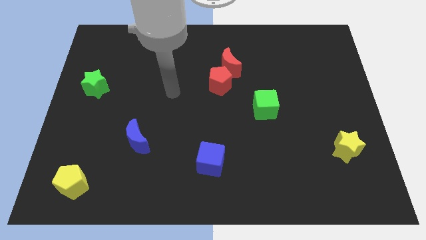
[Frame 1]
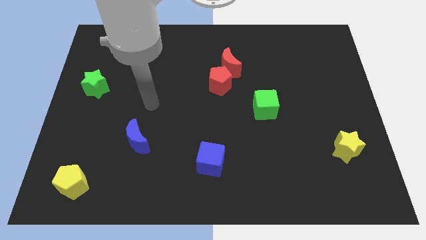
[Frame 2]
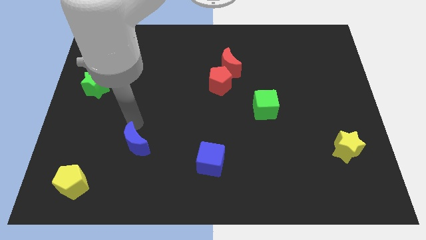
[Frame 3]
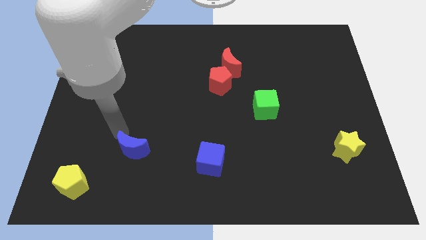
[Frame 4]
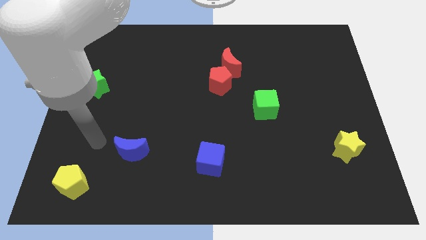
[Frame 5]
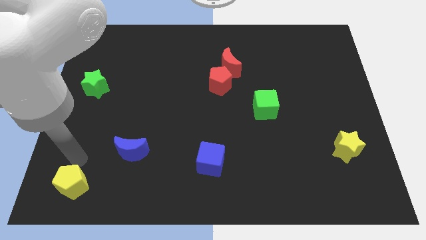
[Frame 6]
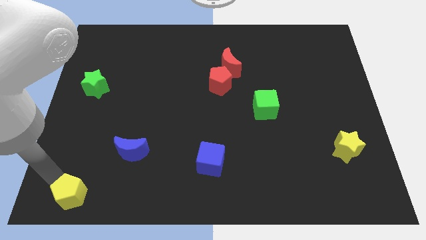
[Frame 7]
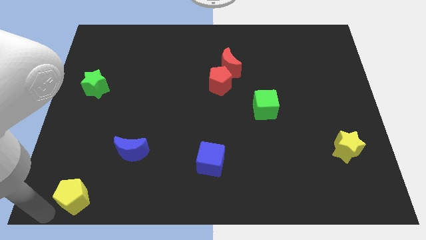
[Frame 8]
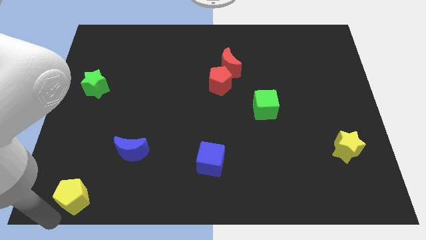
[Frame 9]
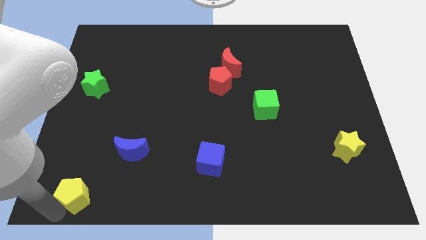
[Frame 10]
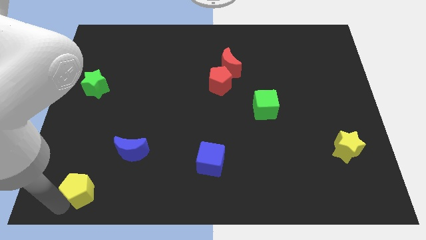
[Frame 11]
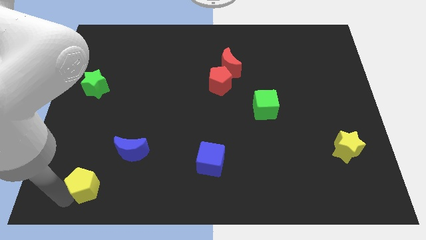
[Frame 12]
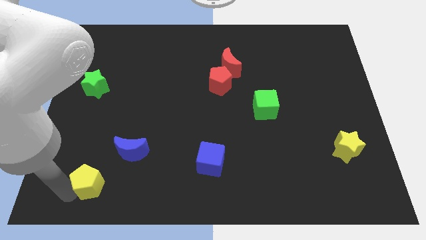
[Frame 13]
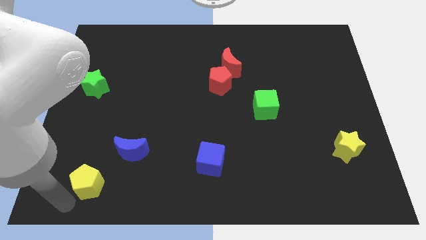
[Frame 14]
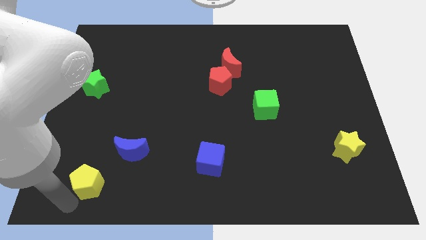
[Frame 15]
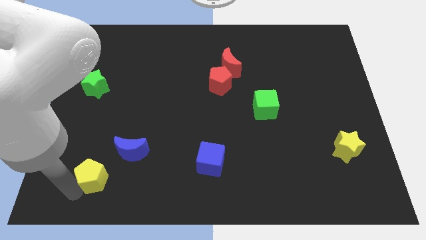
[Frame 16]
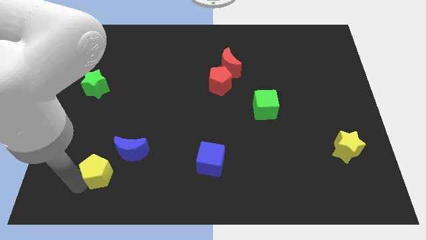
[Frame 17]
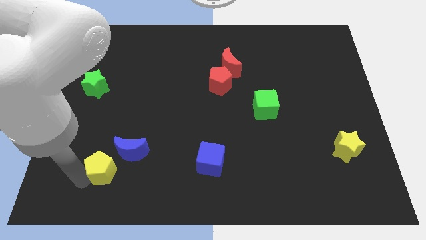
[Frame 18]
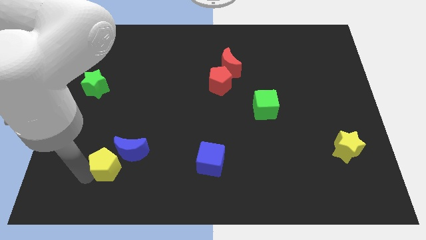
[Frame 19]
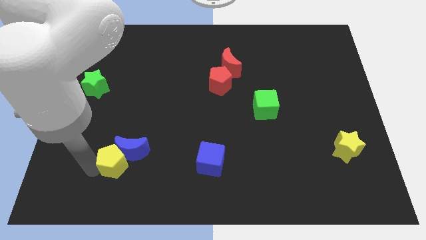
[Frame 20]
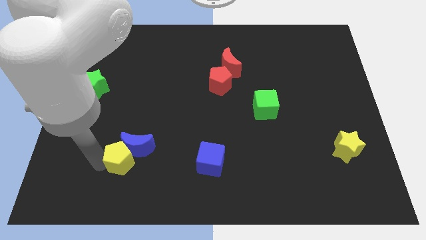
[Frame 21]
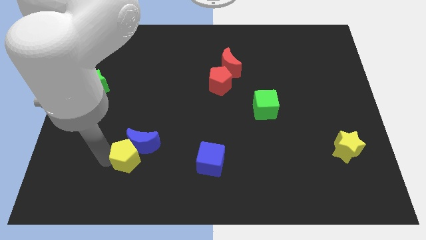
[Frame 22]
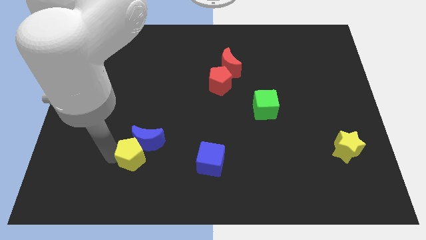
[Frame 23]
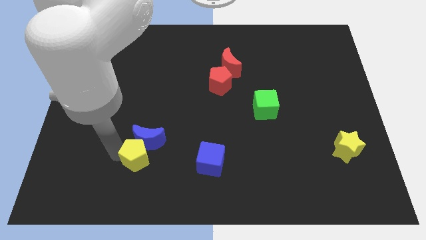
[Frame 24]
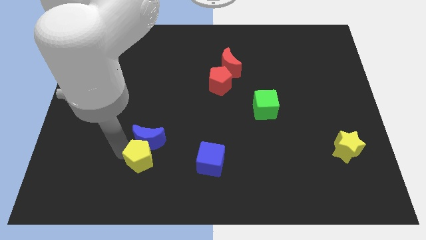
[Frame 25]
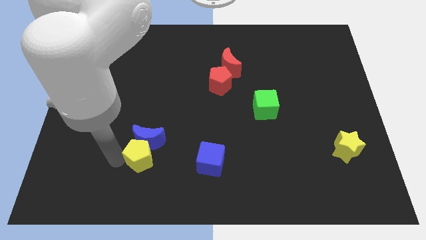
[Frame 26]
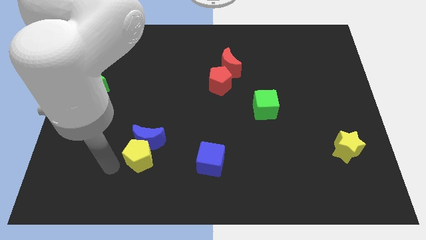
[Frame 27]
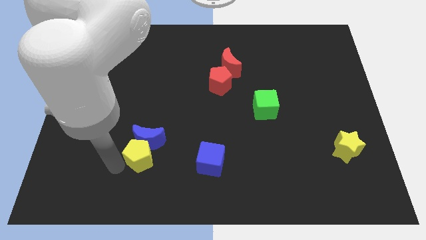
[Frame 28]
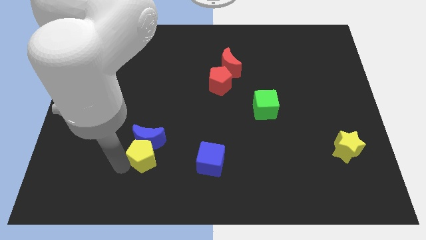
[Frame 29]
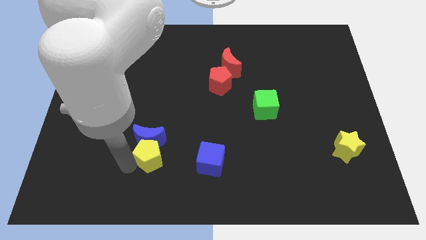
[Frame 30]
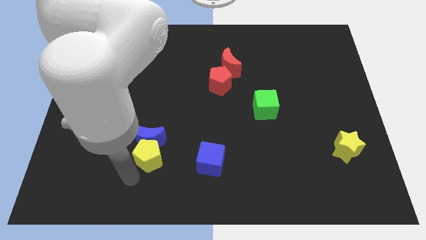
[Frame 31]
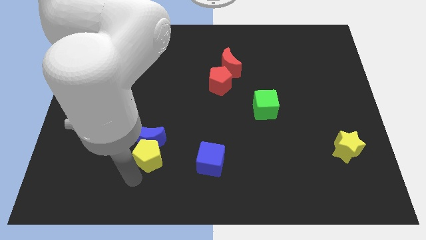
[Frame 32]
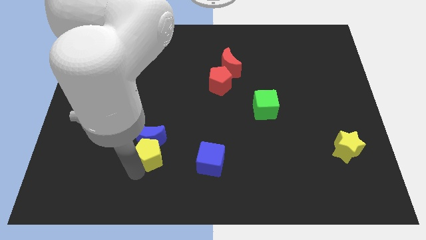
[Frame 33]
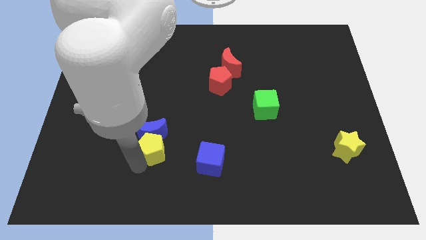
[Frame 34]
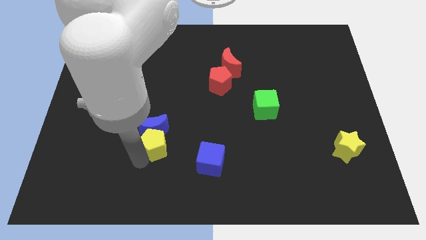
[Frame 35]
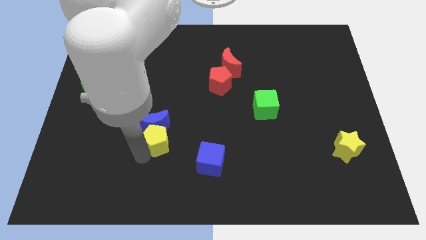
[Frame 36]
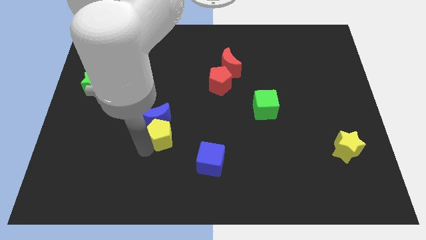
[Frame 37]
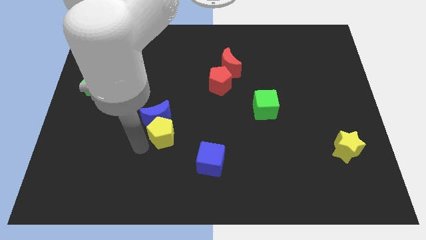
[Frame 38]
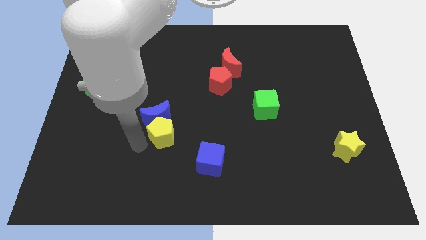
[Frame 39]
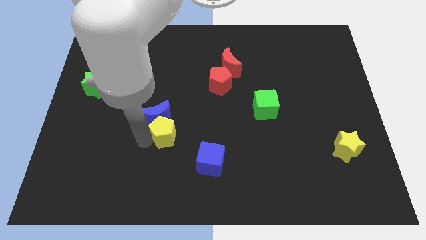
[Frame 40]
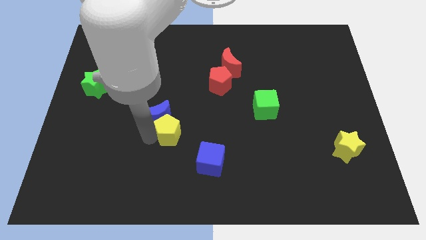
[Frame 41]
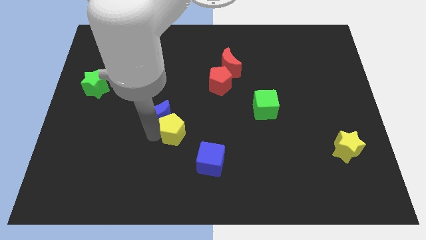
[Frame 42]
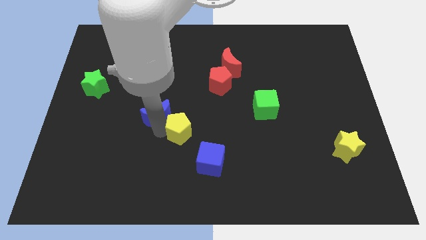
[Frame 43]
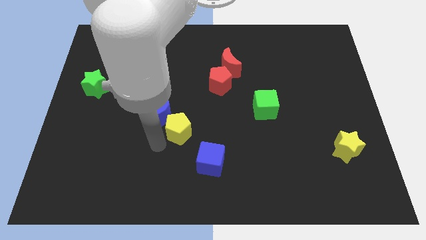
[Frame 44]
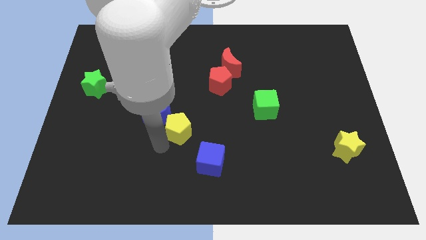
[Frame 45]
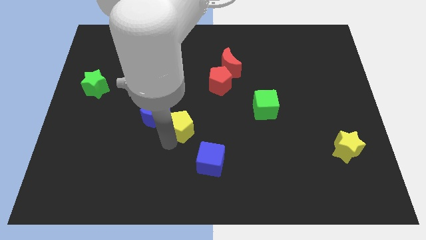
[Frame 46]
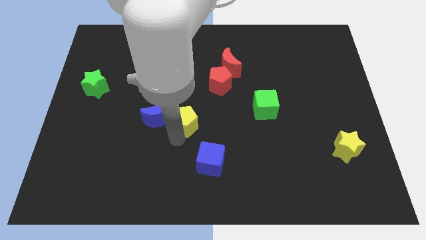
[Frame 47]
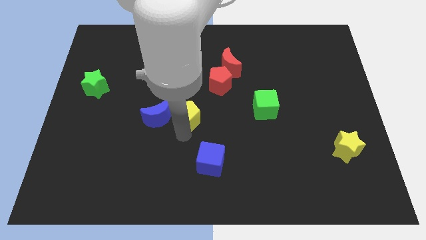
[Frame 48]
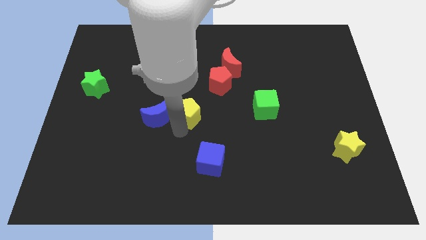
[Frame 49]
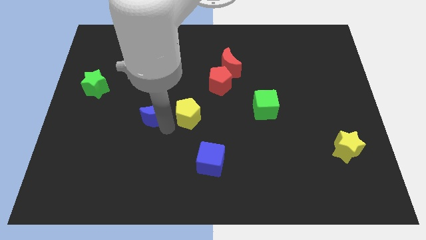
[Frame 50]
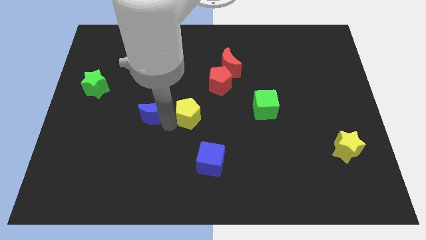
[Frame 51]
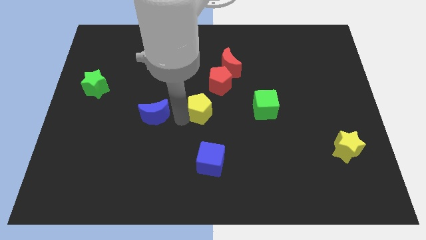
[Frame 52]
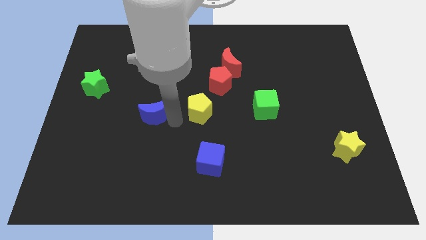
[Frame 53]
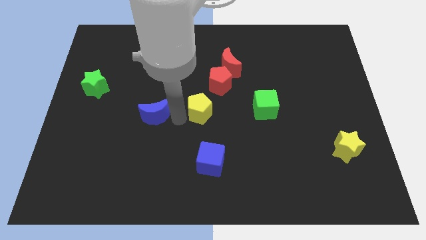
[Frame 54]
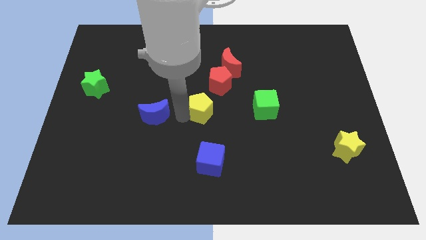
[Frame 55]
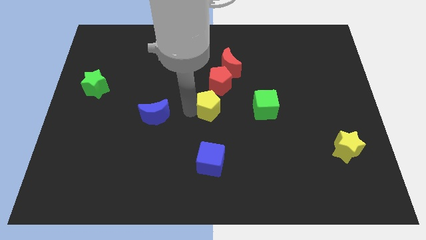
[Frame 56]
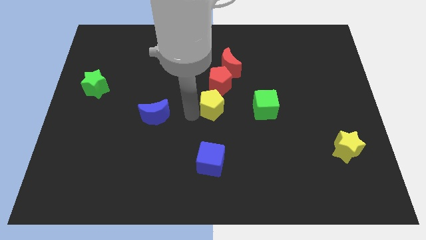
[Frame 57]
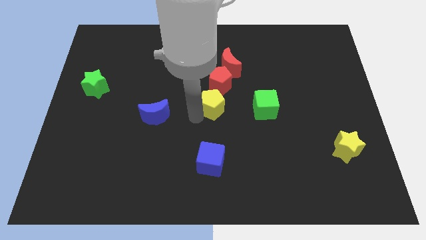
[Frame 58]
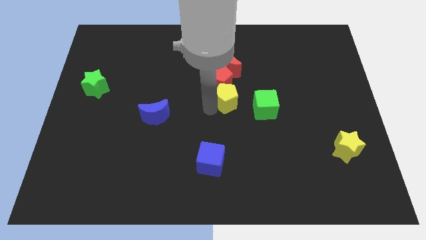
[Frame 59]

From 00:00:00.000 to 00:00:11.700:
slide the yellow pentagon to the top left side of the green cube

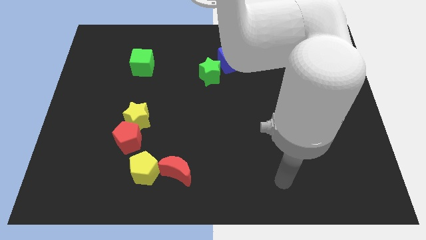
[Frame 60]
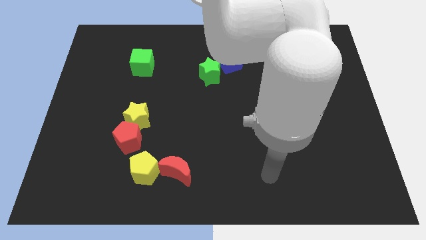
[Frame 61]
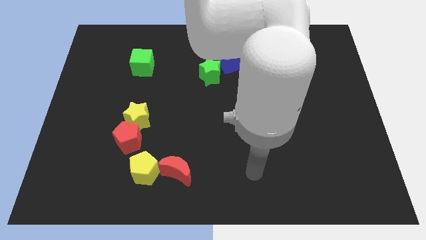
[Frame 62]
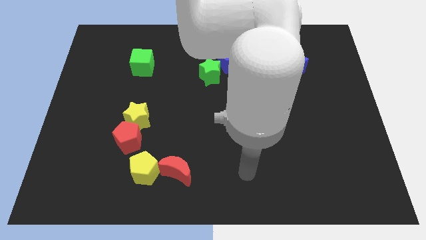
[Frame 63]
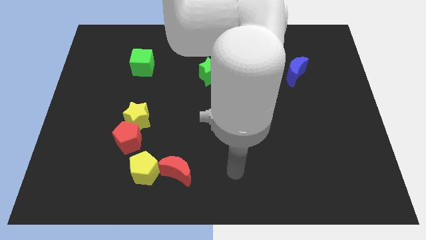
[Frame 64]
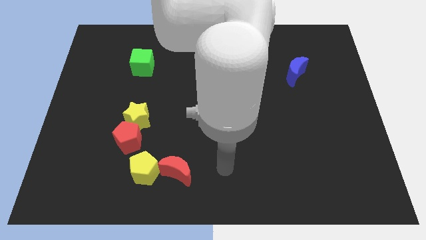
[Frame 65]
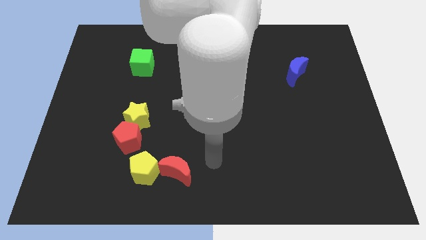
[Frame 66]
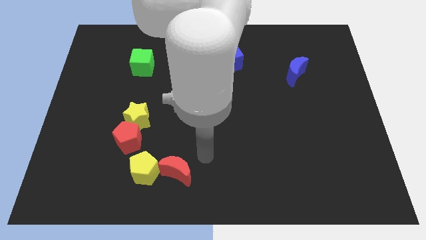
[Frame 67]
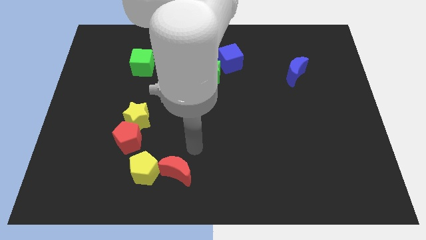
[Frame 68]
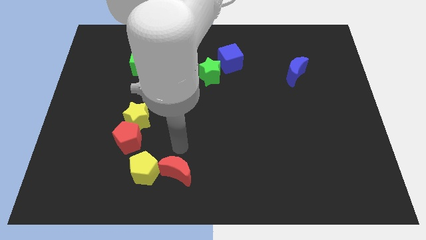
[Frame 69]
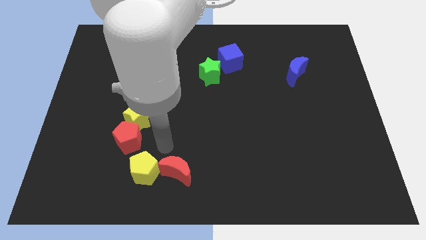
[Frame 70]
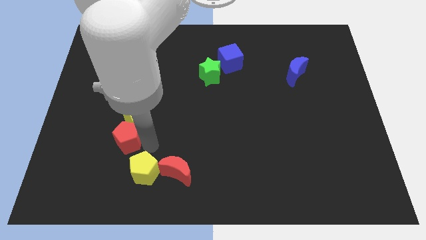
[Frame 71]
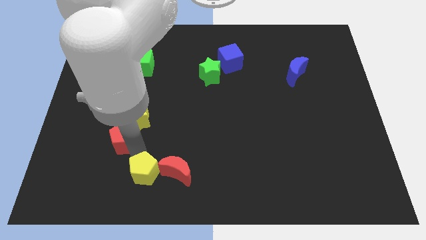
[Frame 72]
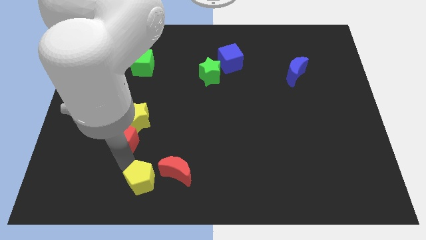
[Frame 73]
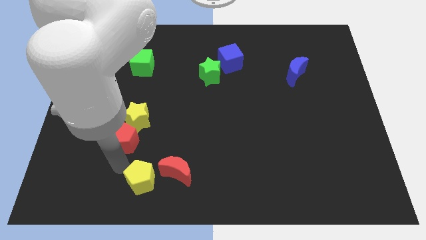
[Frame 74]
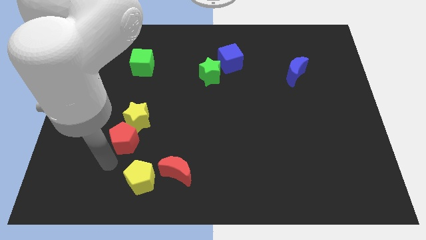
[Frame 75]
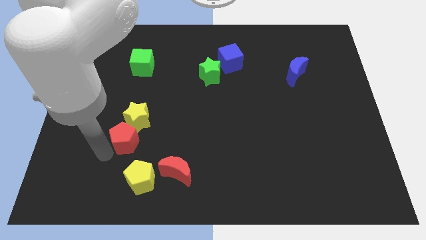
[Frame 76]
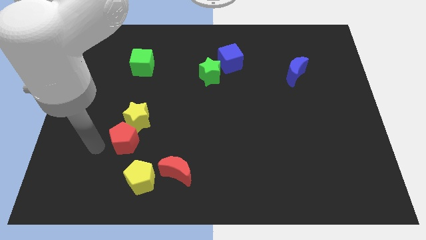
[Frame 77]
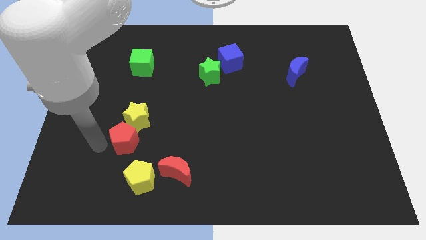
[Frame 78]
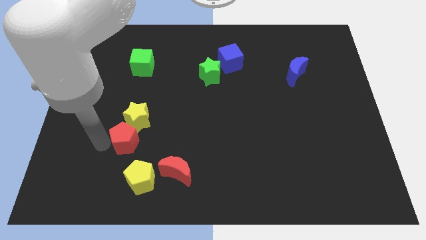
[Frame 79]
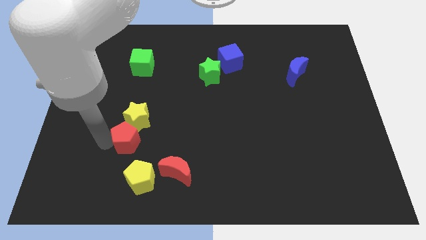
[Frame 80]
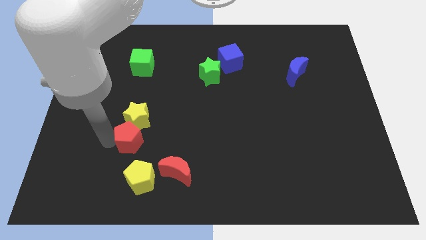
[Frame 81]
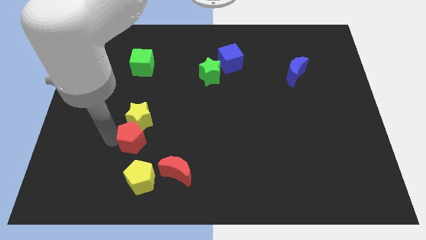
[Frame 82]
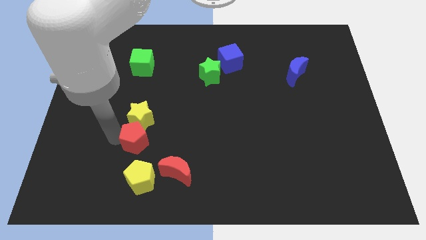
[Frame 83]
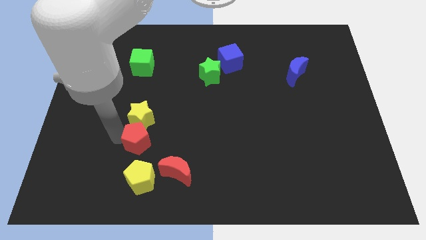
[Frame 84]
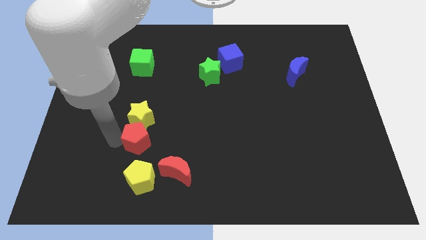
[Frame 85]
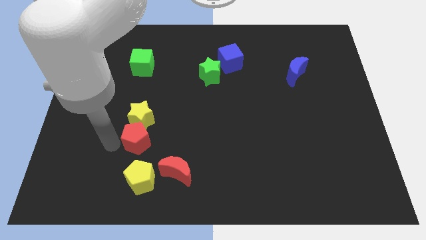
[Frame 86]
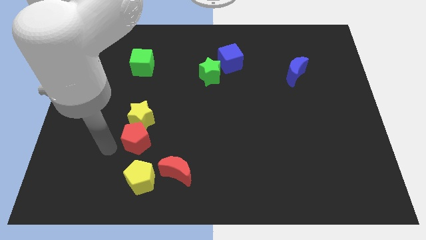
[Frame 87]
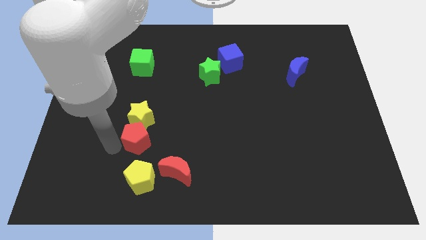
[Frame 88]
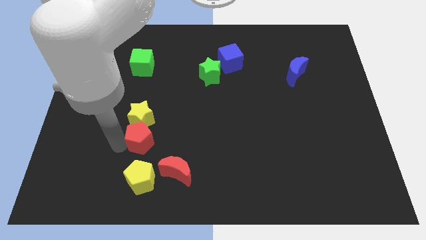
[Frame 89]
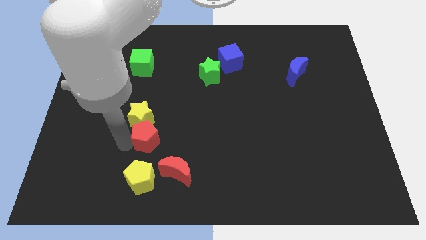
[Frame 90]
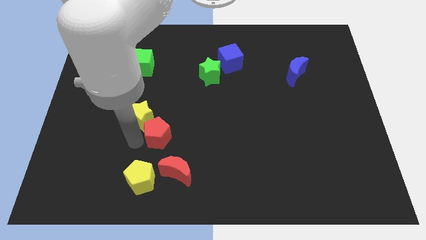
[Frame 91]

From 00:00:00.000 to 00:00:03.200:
put the red pentagon to the top of the red moon
